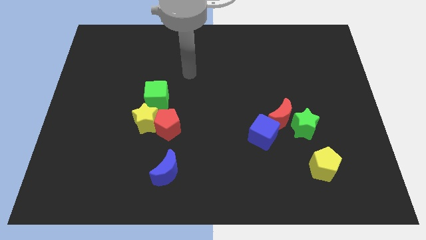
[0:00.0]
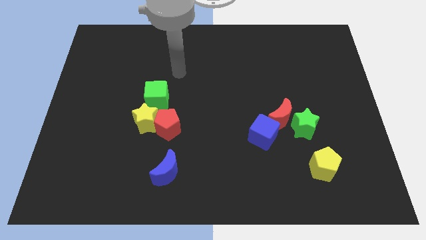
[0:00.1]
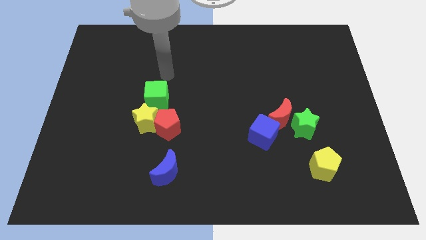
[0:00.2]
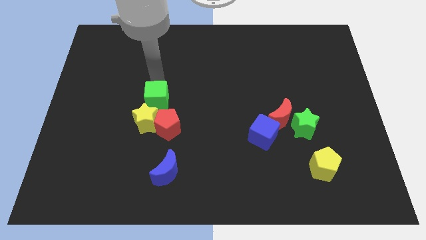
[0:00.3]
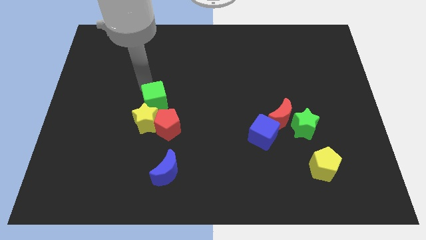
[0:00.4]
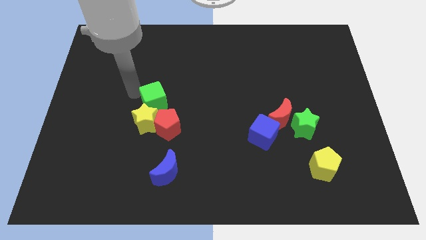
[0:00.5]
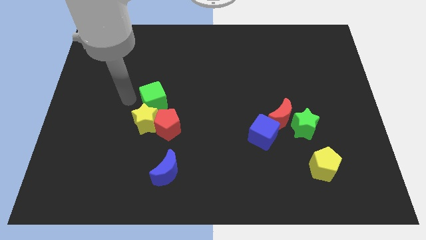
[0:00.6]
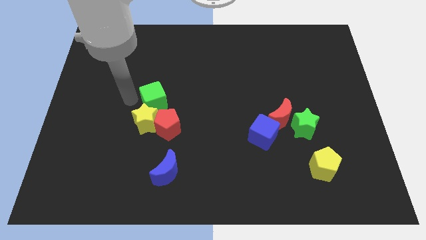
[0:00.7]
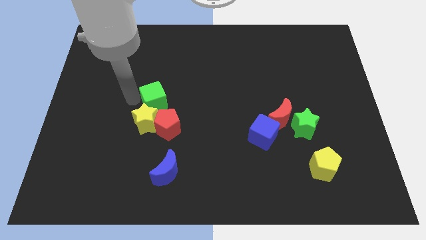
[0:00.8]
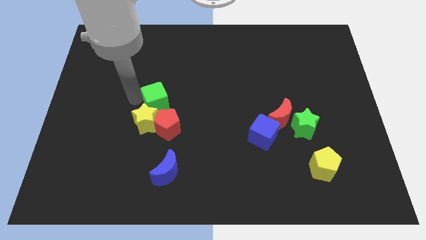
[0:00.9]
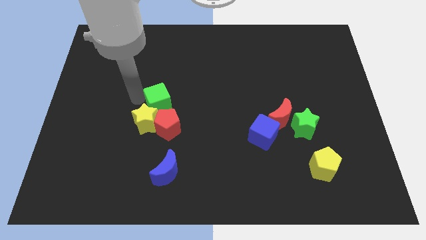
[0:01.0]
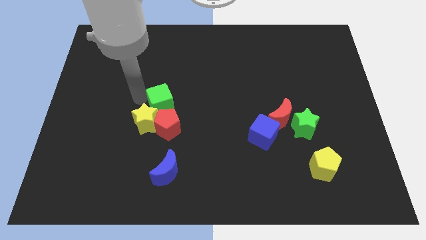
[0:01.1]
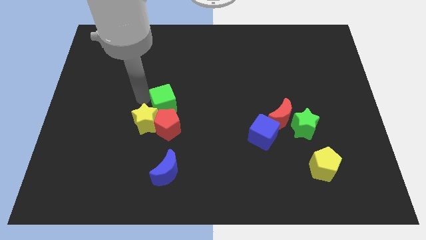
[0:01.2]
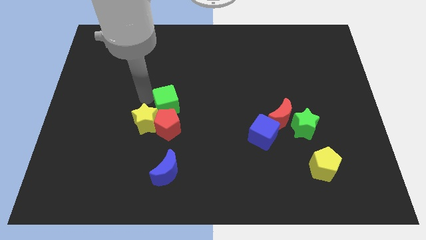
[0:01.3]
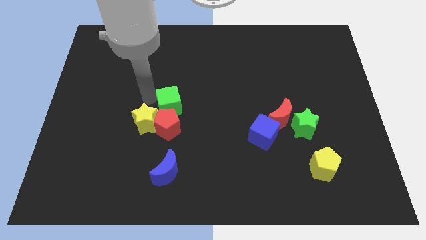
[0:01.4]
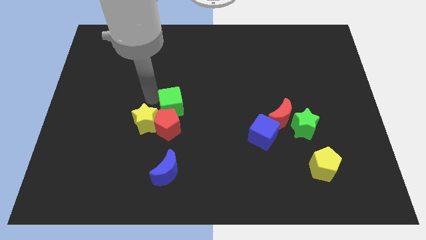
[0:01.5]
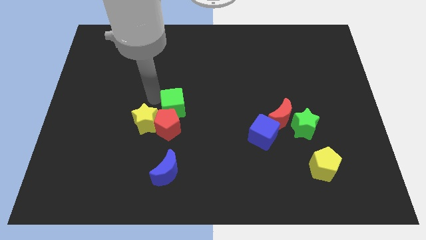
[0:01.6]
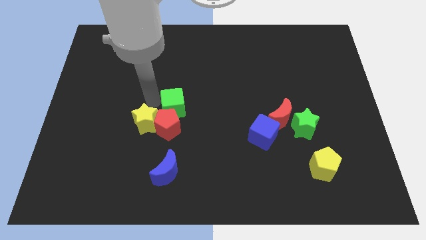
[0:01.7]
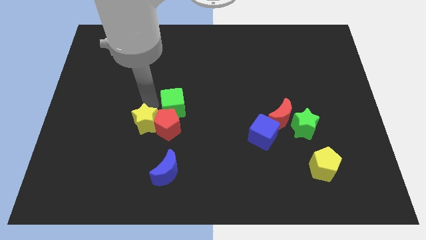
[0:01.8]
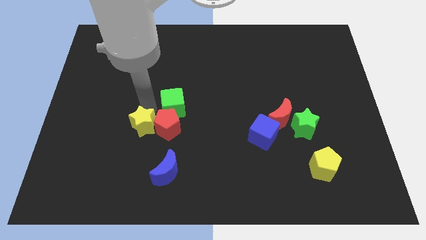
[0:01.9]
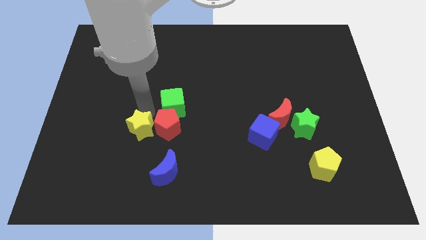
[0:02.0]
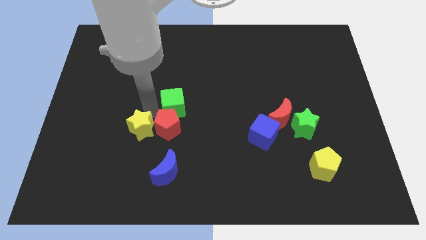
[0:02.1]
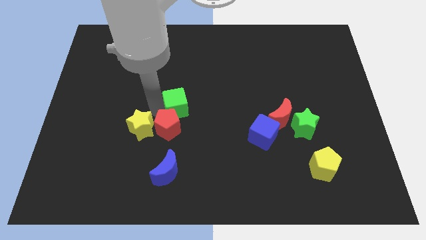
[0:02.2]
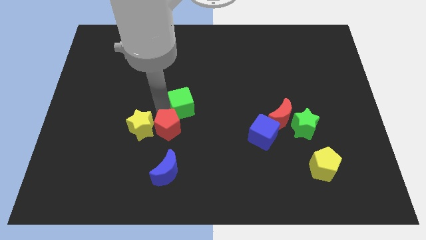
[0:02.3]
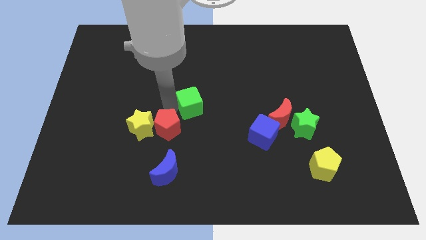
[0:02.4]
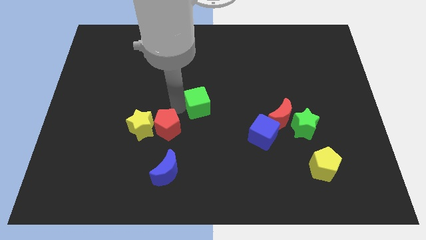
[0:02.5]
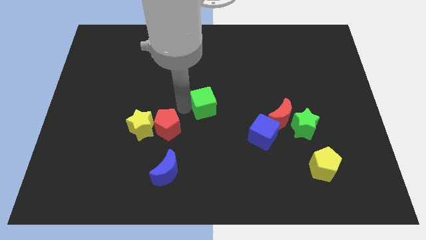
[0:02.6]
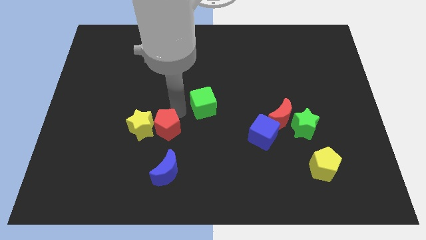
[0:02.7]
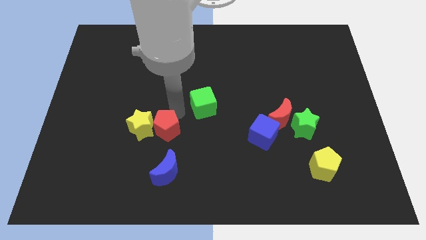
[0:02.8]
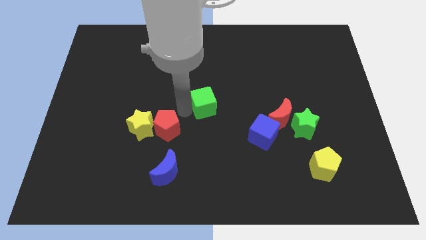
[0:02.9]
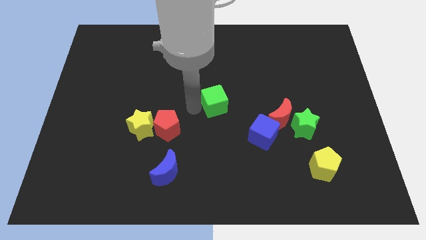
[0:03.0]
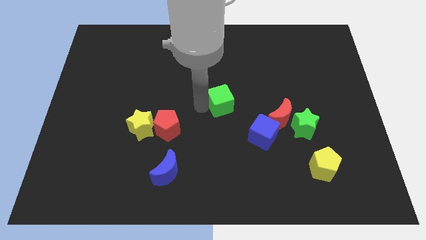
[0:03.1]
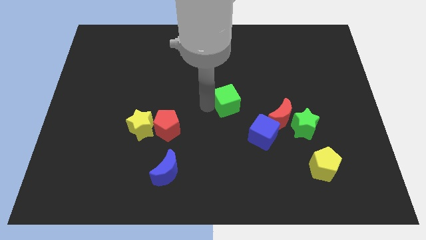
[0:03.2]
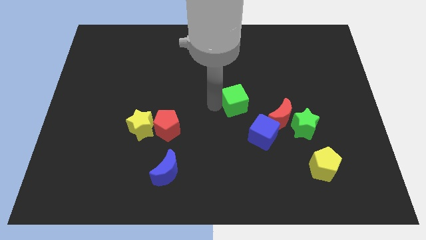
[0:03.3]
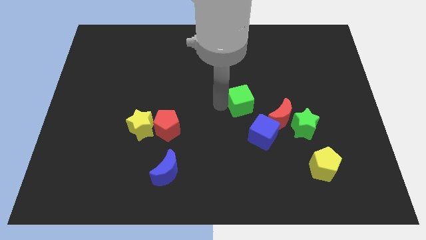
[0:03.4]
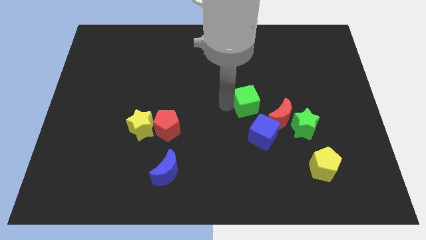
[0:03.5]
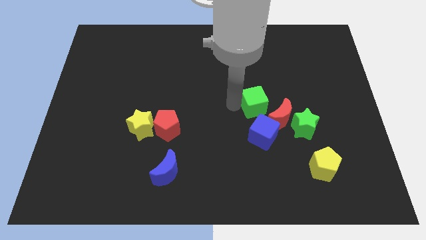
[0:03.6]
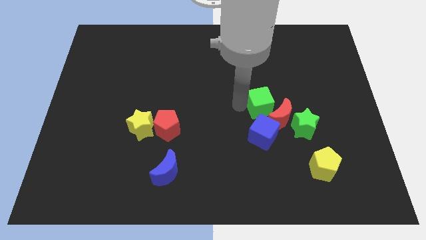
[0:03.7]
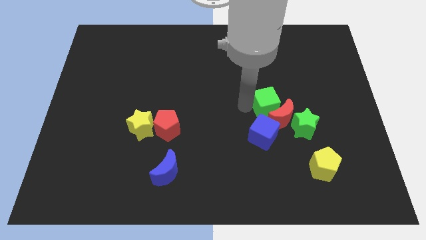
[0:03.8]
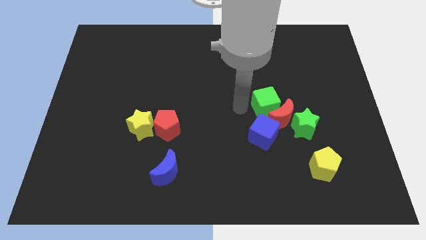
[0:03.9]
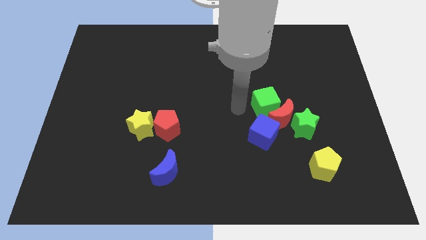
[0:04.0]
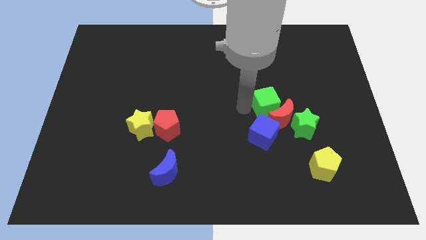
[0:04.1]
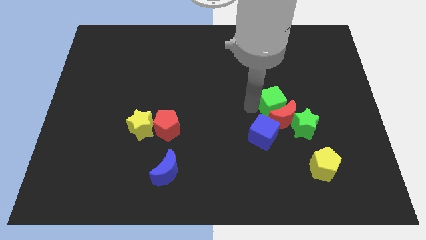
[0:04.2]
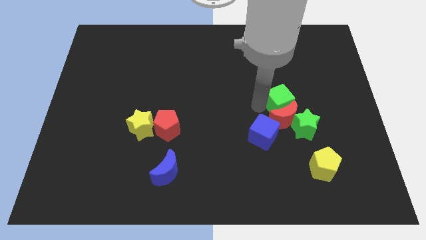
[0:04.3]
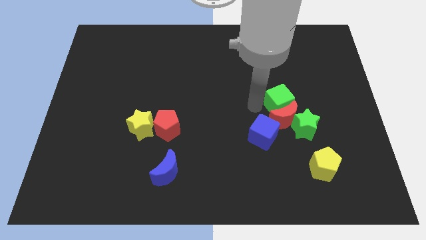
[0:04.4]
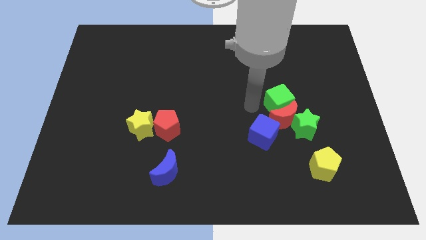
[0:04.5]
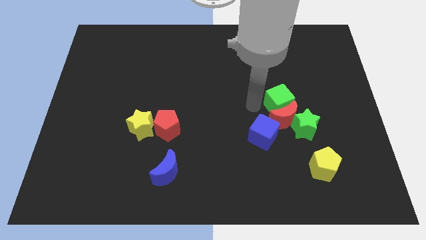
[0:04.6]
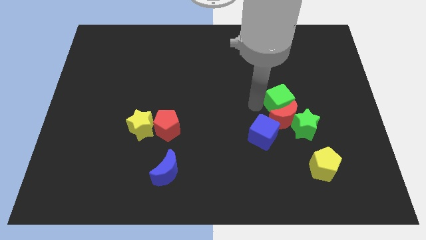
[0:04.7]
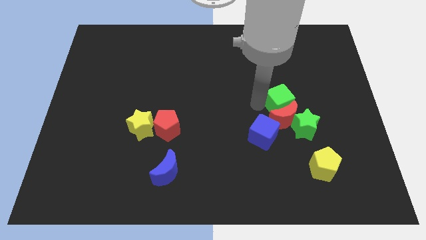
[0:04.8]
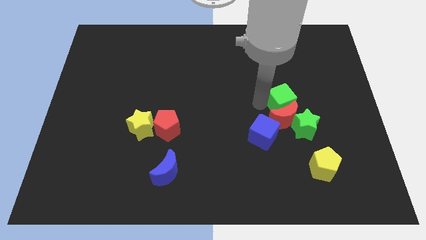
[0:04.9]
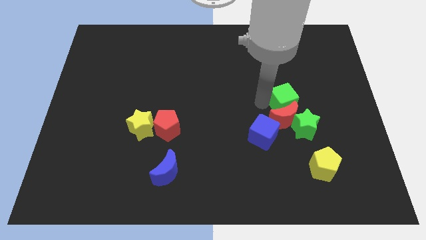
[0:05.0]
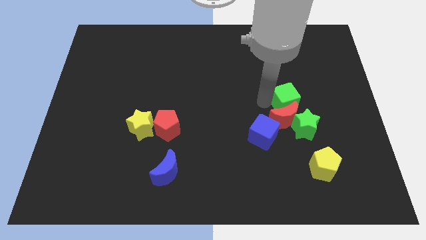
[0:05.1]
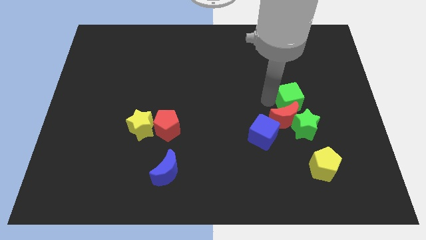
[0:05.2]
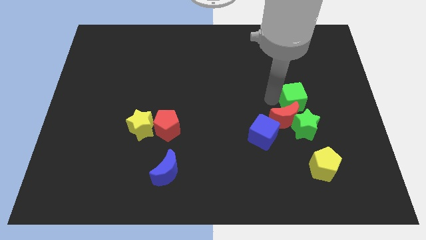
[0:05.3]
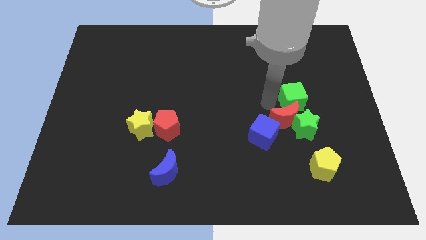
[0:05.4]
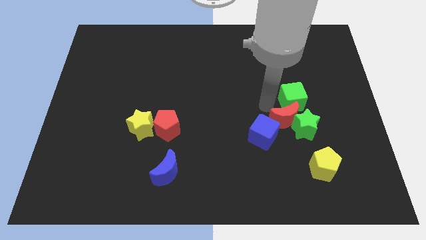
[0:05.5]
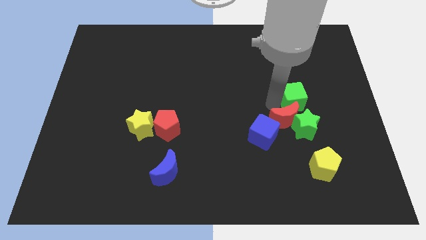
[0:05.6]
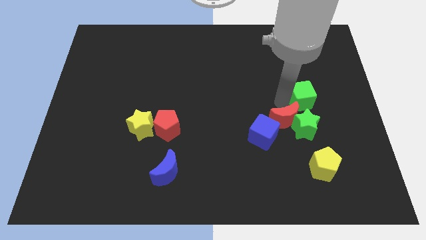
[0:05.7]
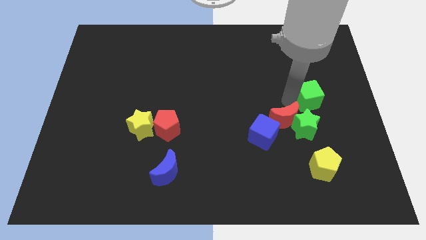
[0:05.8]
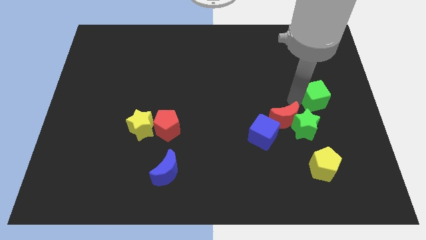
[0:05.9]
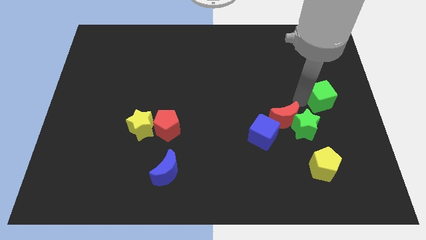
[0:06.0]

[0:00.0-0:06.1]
put the green cube to the right side of the board

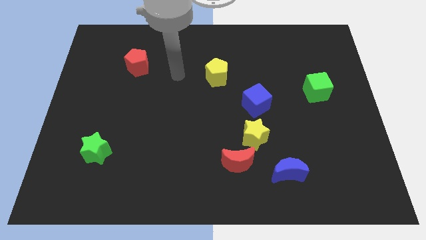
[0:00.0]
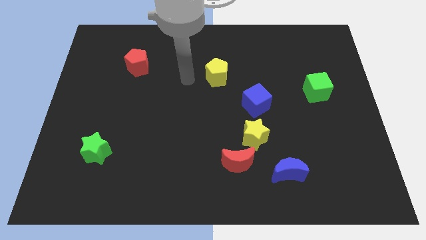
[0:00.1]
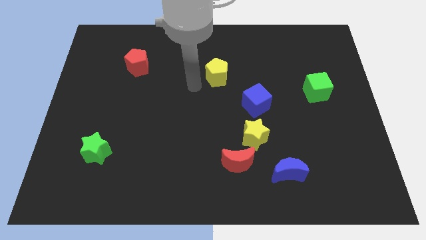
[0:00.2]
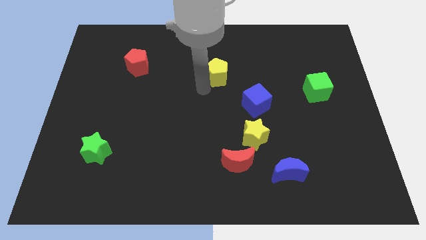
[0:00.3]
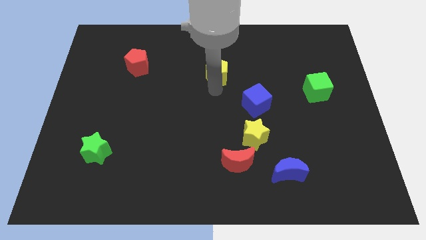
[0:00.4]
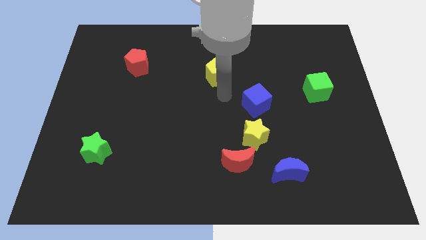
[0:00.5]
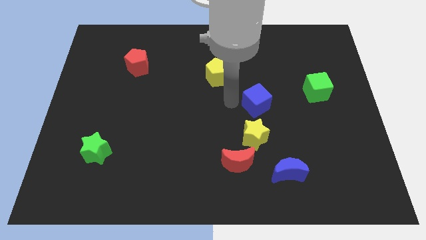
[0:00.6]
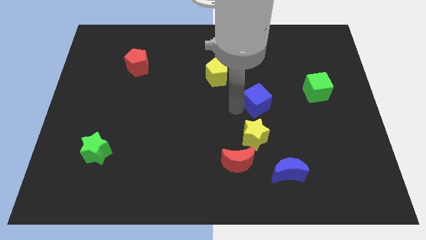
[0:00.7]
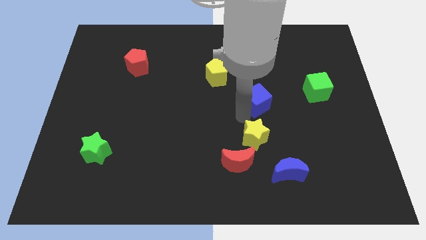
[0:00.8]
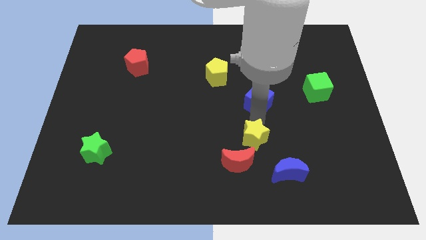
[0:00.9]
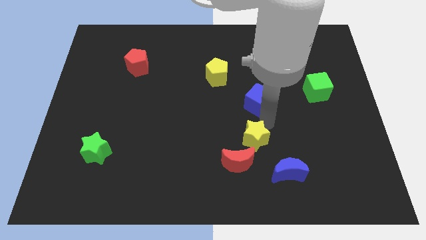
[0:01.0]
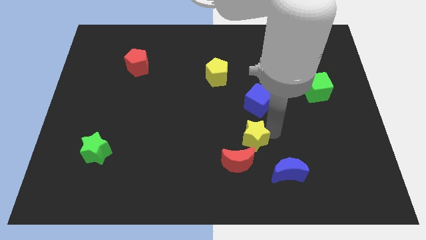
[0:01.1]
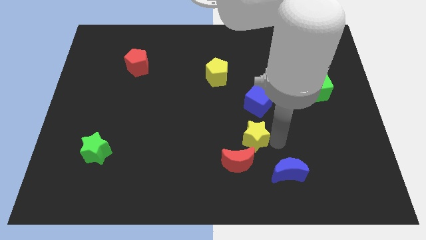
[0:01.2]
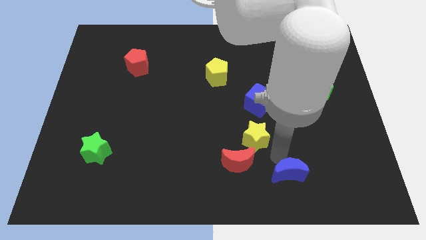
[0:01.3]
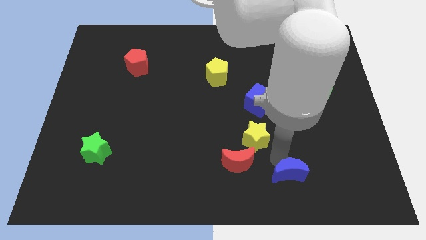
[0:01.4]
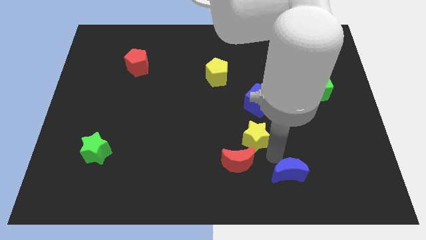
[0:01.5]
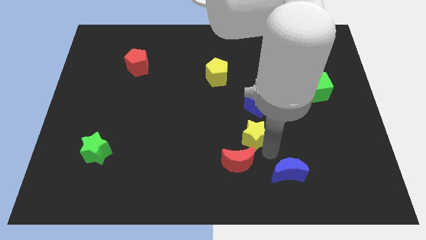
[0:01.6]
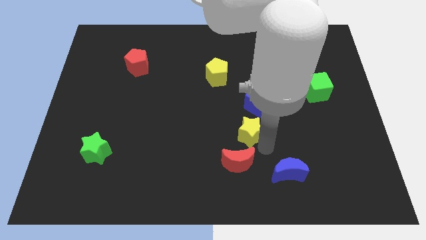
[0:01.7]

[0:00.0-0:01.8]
push the yellow star to the center
